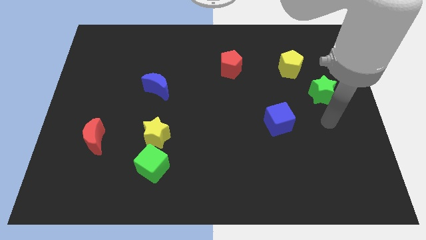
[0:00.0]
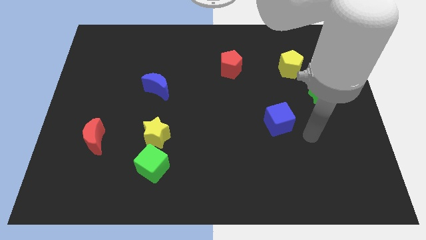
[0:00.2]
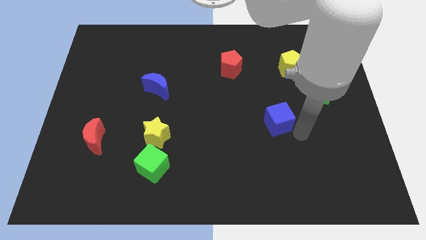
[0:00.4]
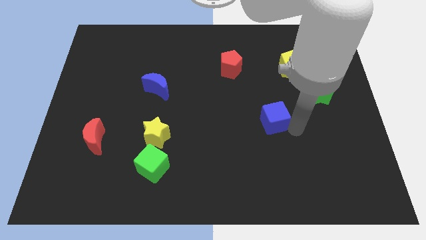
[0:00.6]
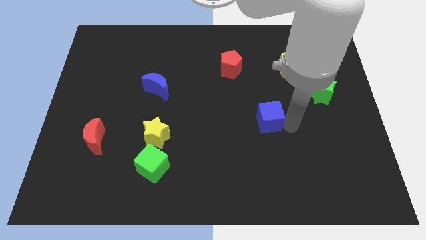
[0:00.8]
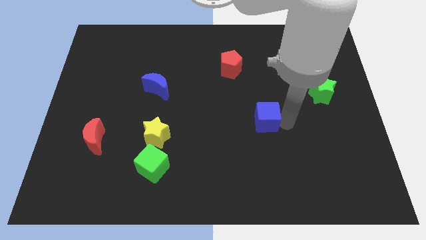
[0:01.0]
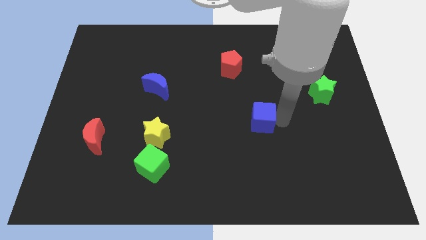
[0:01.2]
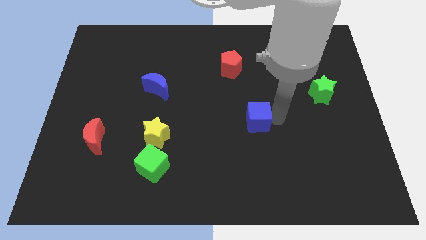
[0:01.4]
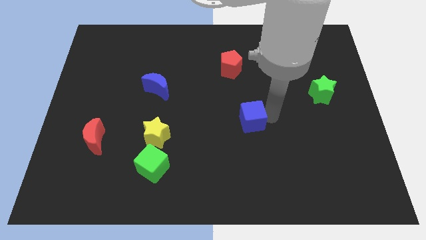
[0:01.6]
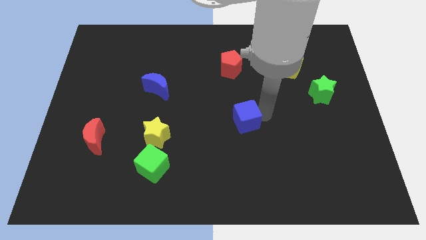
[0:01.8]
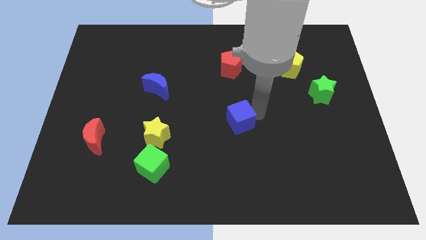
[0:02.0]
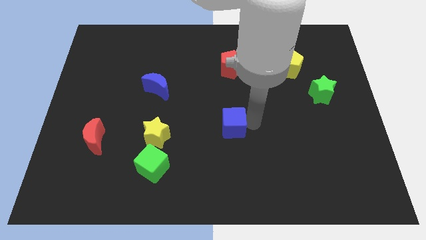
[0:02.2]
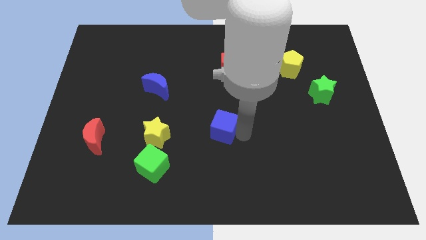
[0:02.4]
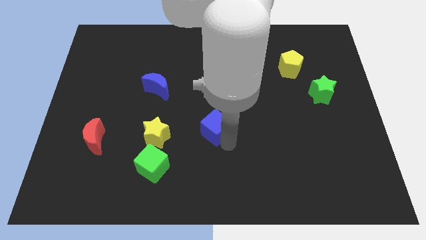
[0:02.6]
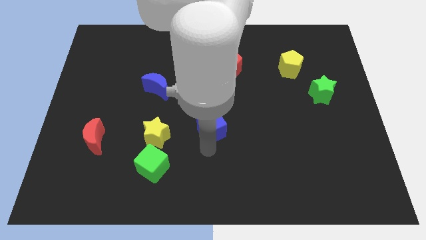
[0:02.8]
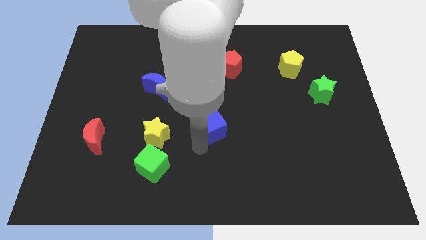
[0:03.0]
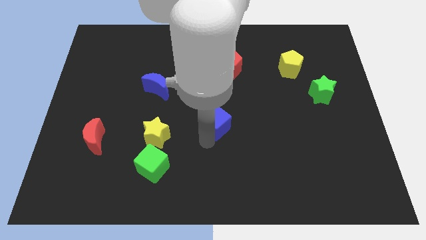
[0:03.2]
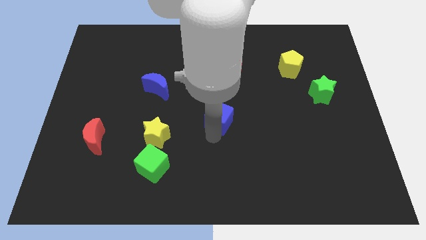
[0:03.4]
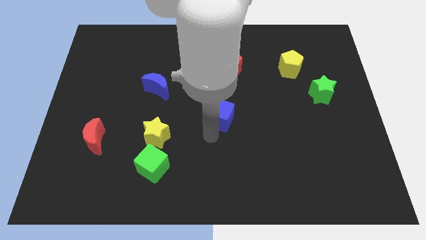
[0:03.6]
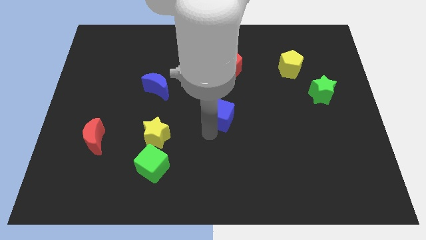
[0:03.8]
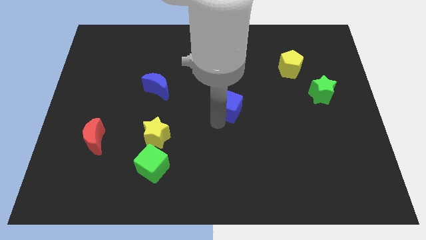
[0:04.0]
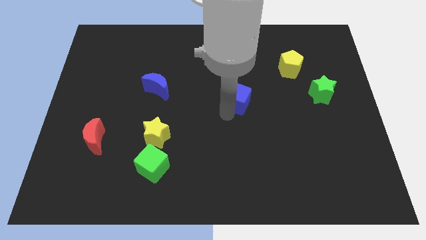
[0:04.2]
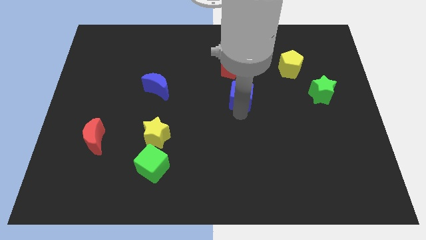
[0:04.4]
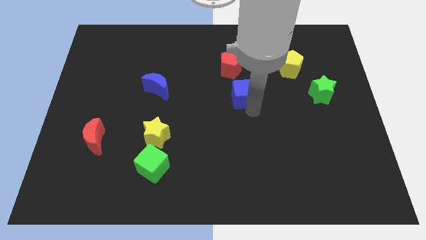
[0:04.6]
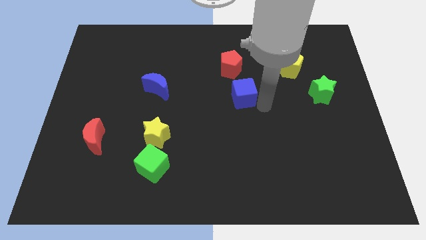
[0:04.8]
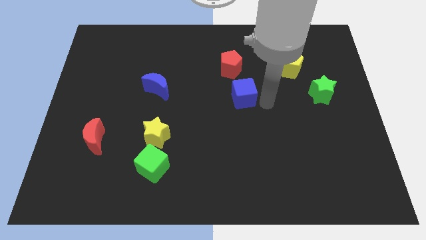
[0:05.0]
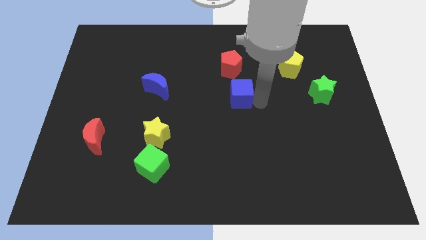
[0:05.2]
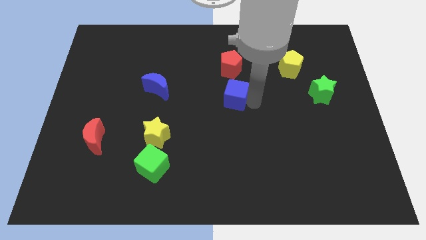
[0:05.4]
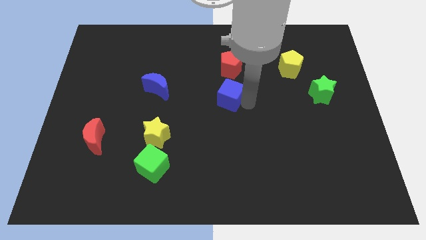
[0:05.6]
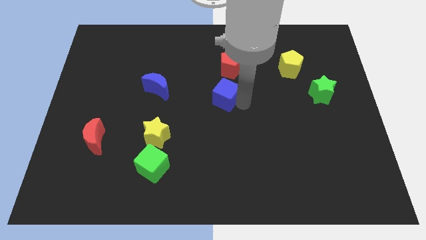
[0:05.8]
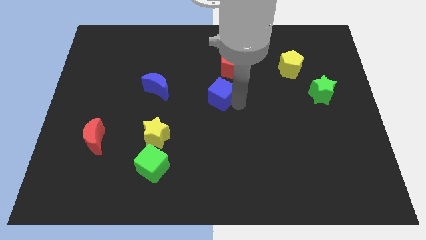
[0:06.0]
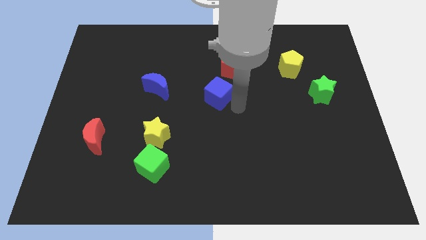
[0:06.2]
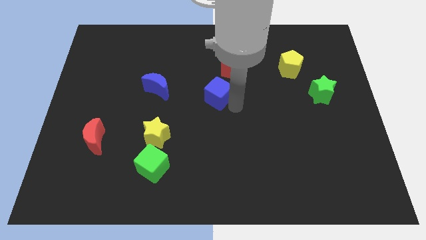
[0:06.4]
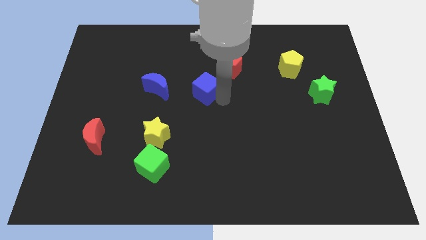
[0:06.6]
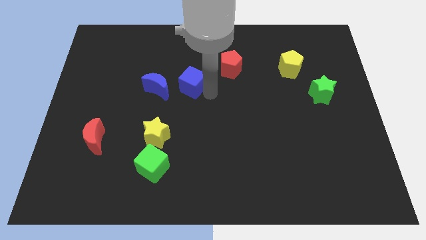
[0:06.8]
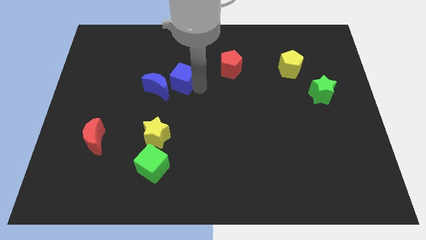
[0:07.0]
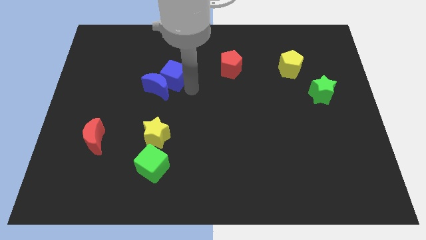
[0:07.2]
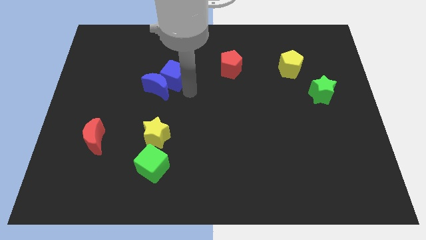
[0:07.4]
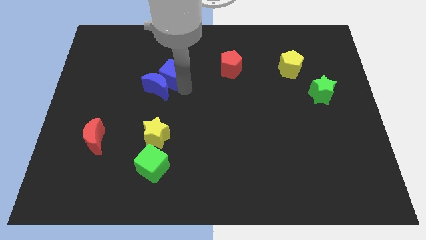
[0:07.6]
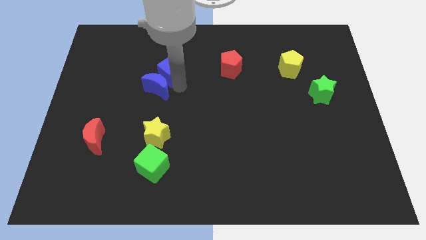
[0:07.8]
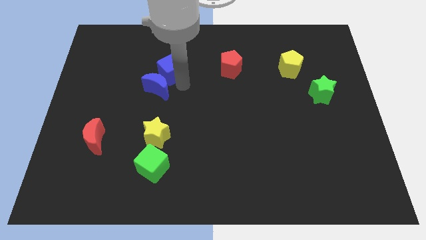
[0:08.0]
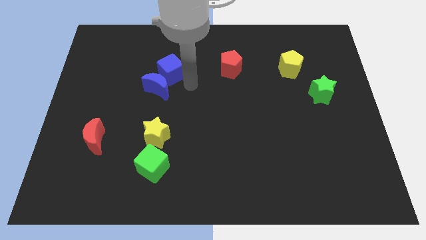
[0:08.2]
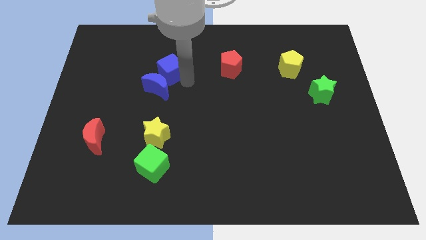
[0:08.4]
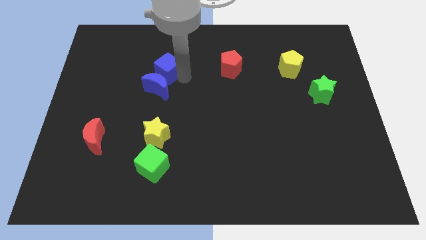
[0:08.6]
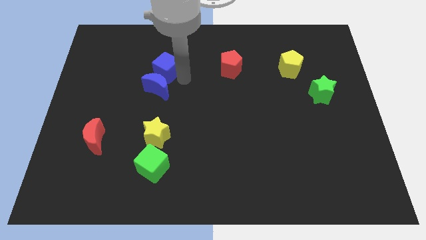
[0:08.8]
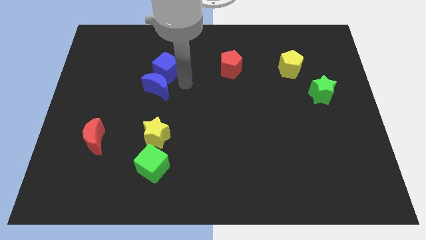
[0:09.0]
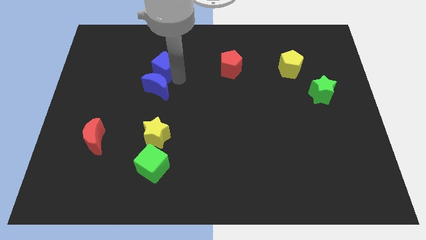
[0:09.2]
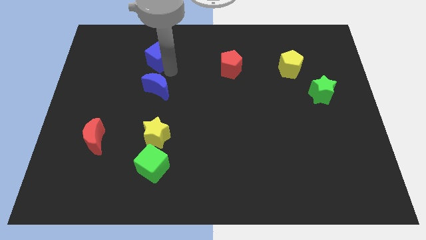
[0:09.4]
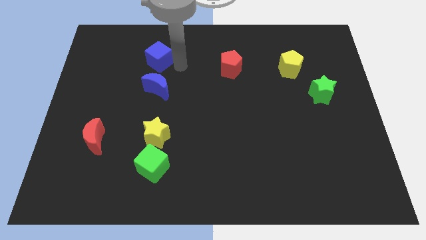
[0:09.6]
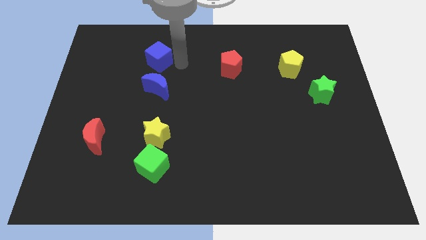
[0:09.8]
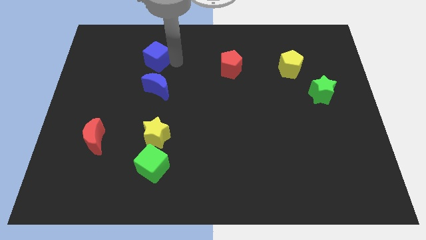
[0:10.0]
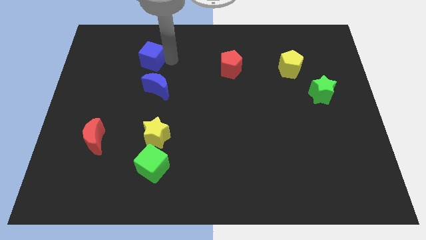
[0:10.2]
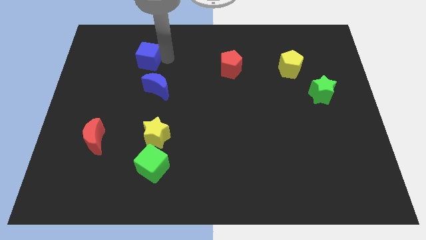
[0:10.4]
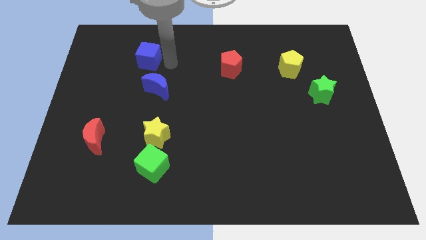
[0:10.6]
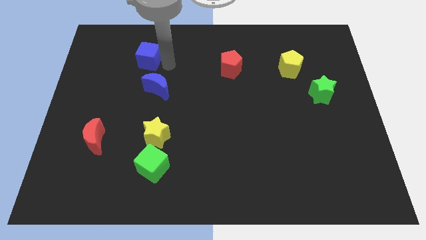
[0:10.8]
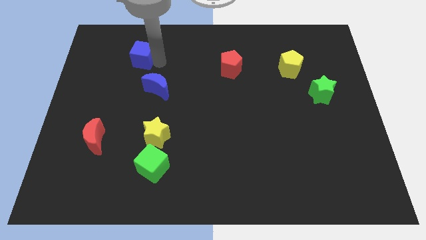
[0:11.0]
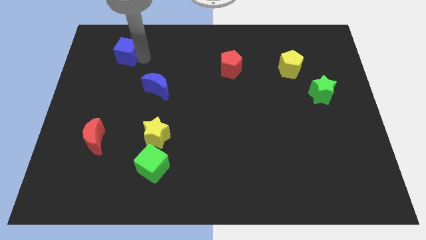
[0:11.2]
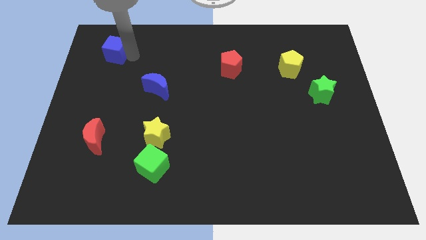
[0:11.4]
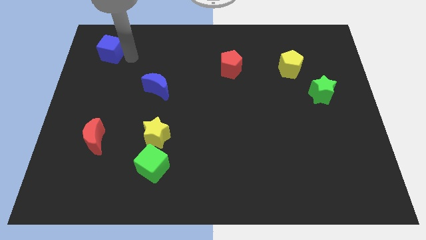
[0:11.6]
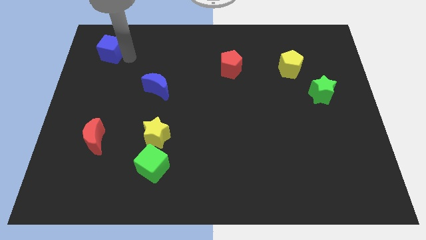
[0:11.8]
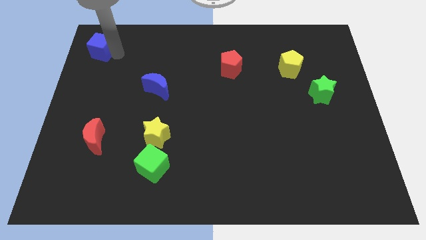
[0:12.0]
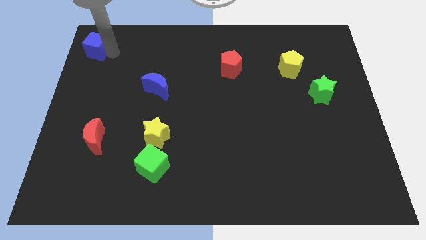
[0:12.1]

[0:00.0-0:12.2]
move the blue cube to the top left of the board

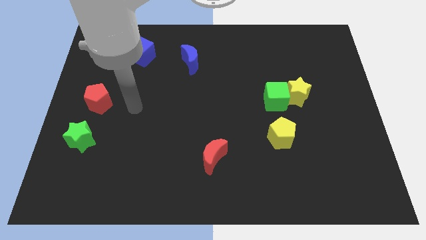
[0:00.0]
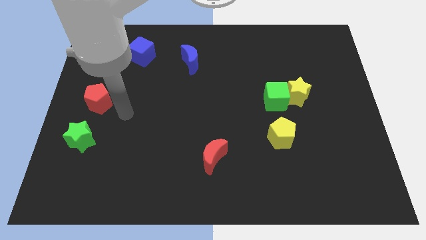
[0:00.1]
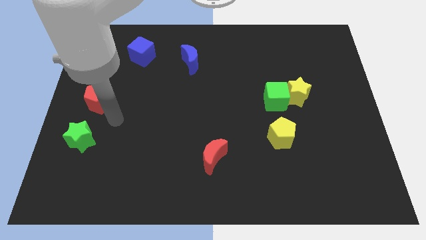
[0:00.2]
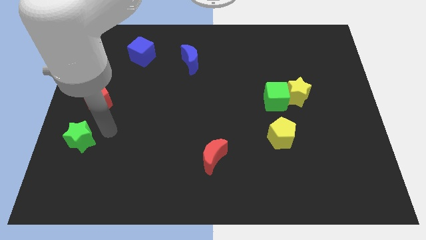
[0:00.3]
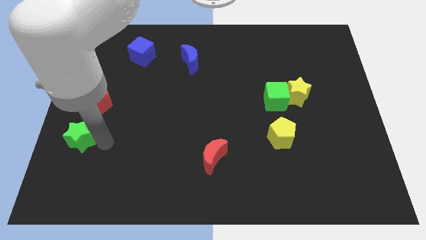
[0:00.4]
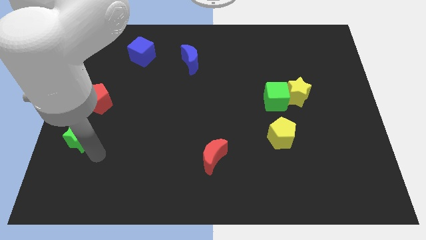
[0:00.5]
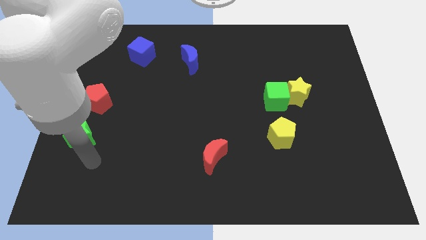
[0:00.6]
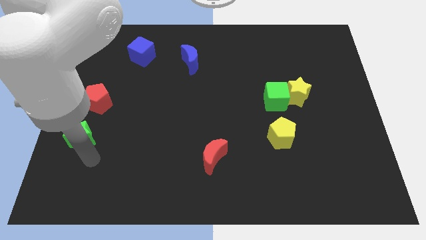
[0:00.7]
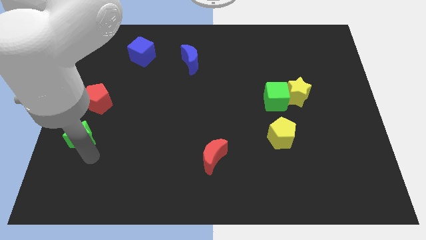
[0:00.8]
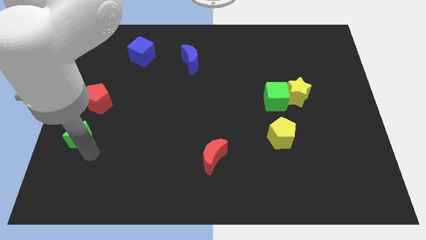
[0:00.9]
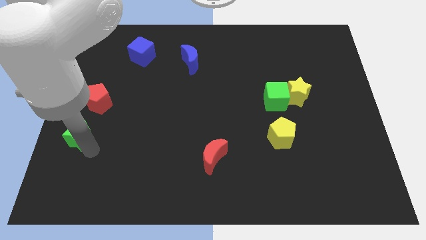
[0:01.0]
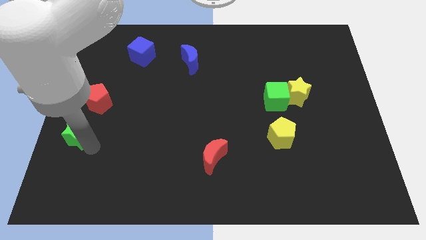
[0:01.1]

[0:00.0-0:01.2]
slide the green star to the left side

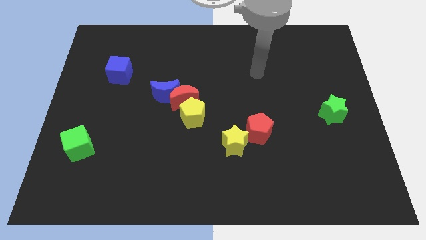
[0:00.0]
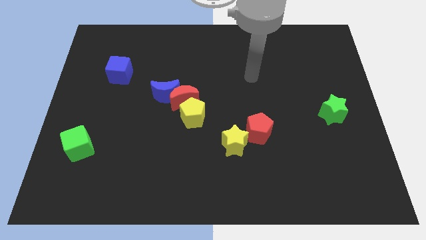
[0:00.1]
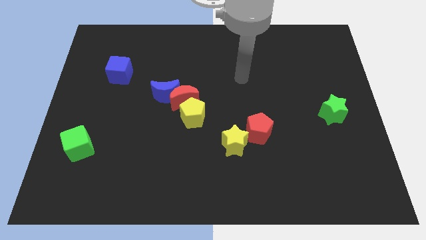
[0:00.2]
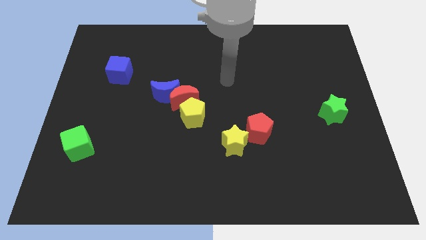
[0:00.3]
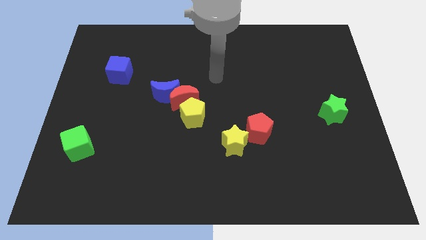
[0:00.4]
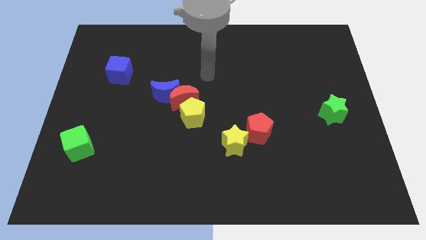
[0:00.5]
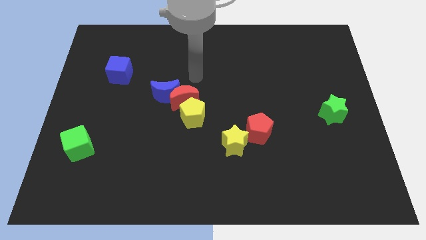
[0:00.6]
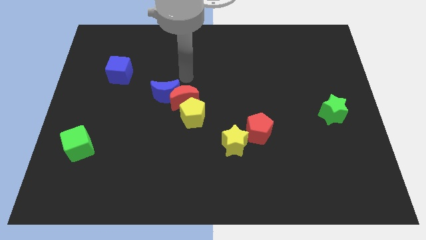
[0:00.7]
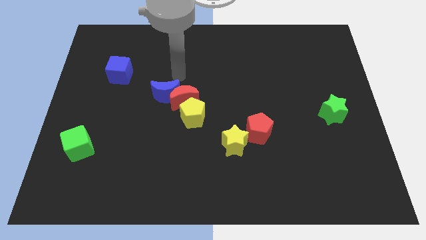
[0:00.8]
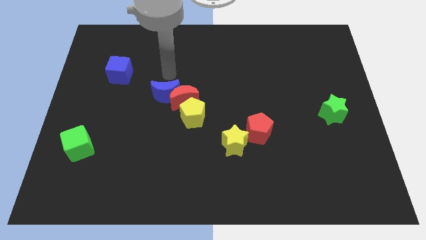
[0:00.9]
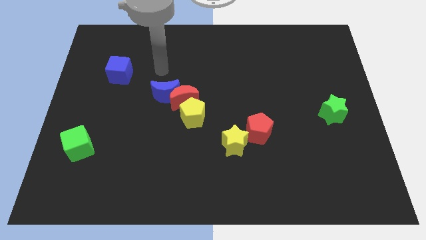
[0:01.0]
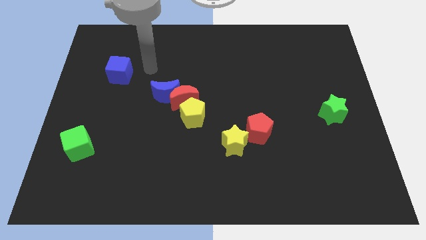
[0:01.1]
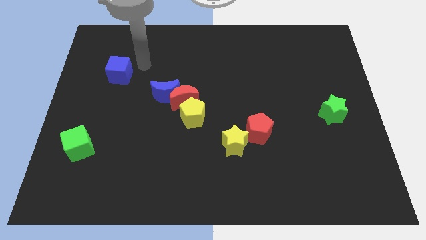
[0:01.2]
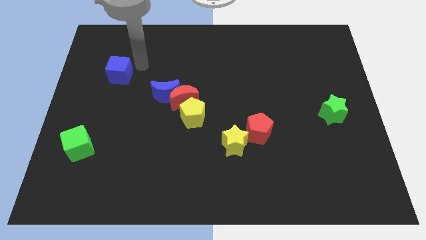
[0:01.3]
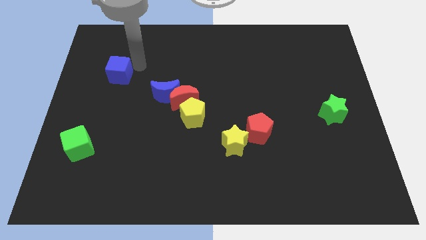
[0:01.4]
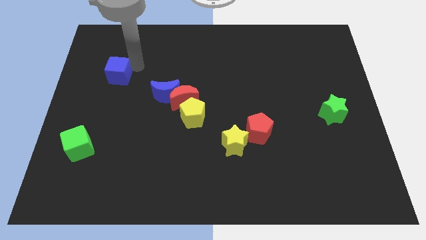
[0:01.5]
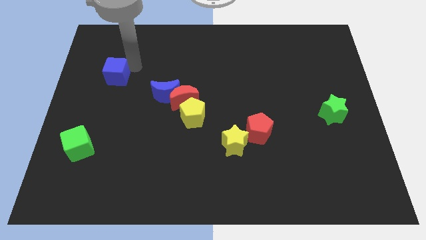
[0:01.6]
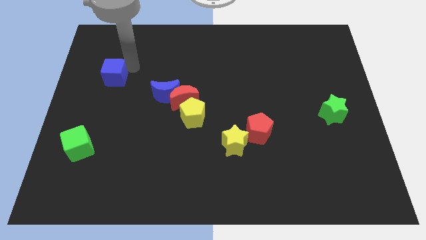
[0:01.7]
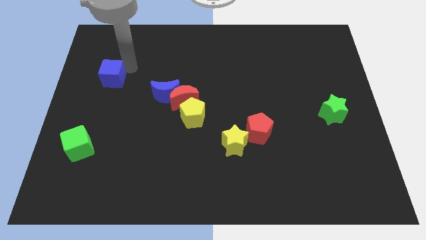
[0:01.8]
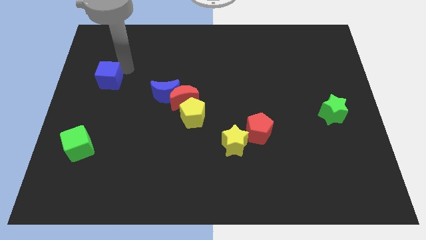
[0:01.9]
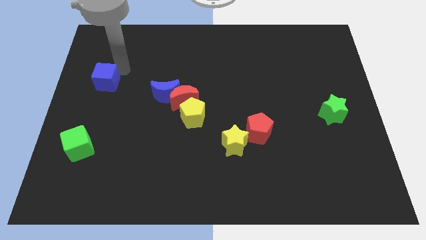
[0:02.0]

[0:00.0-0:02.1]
push the blue cube to the left side
